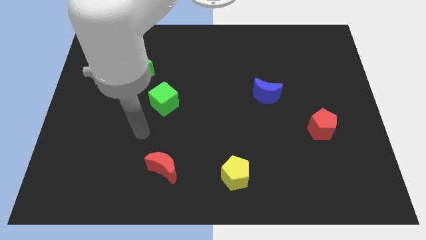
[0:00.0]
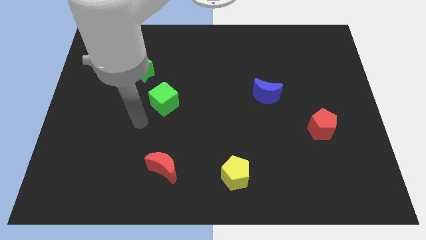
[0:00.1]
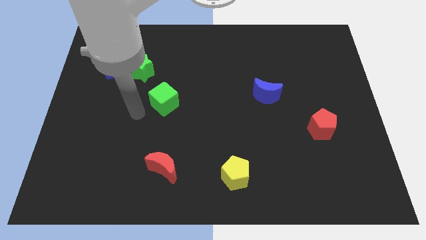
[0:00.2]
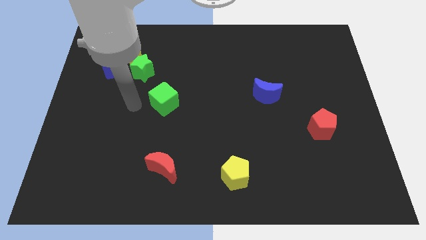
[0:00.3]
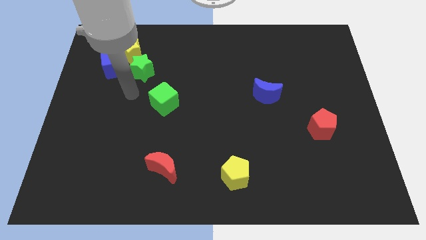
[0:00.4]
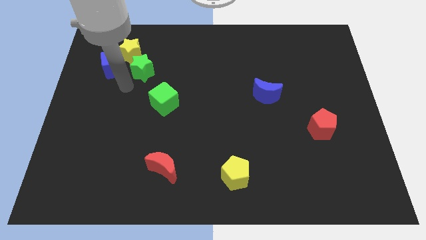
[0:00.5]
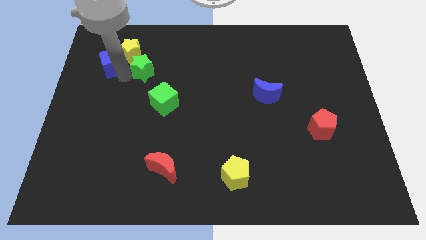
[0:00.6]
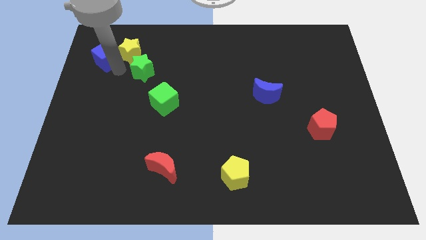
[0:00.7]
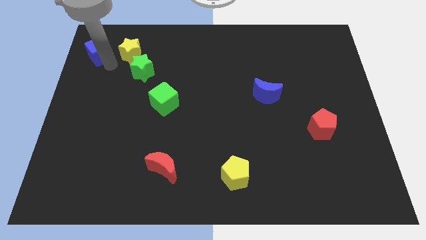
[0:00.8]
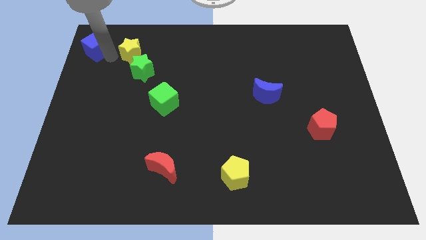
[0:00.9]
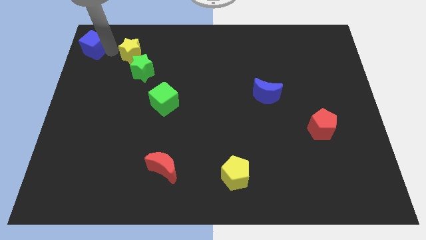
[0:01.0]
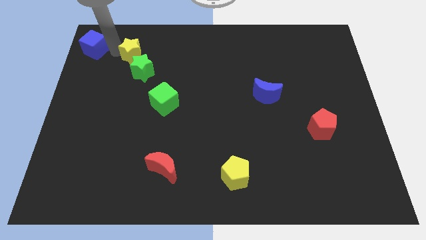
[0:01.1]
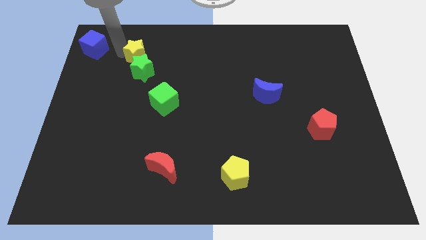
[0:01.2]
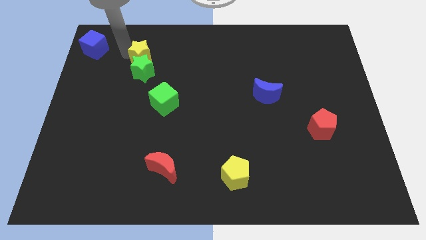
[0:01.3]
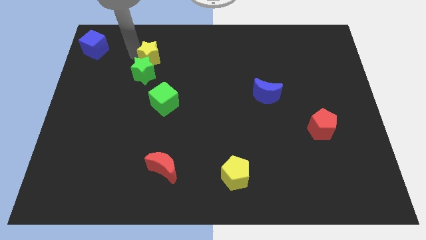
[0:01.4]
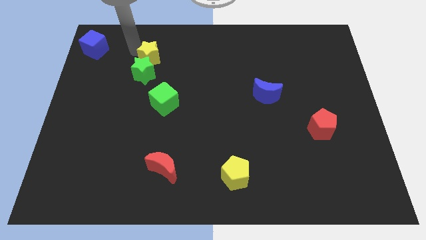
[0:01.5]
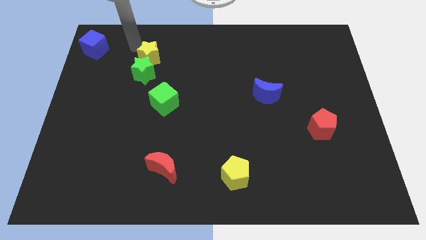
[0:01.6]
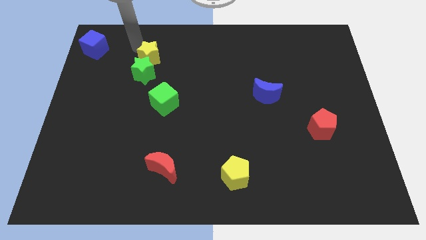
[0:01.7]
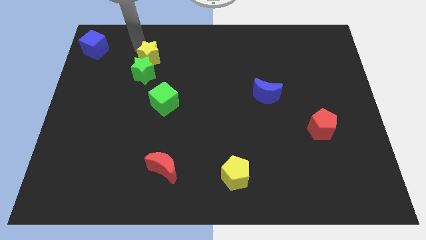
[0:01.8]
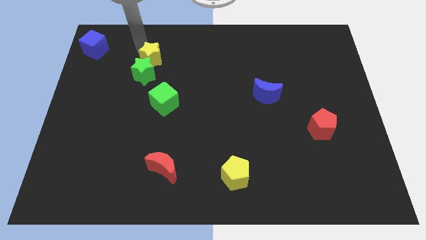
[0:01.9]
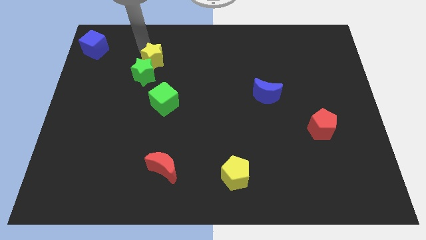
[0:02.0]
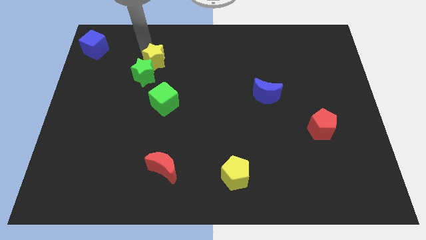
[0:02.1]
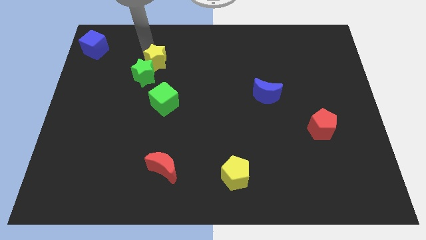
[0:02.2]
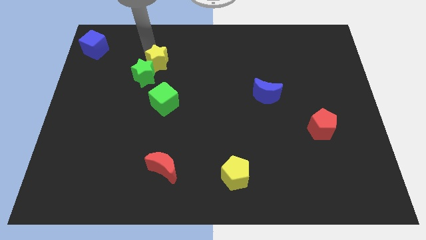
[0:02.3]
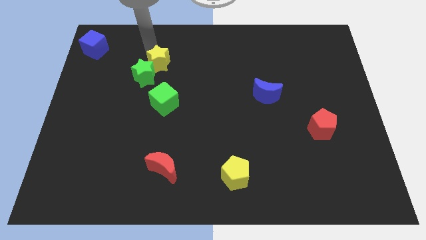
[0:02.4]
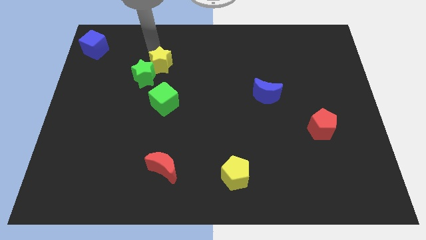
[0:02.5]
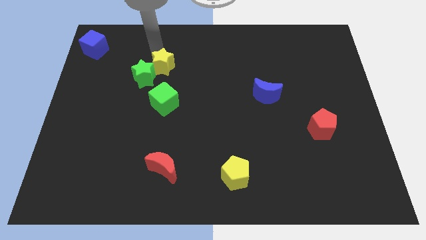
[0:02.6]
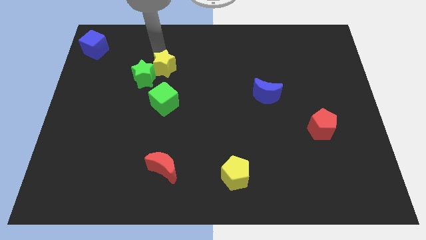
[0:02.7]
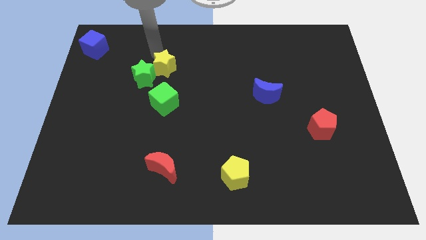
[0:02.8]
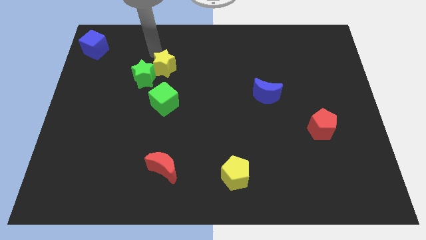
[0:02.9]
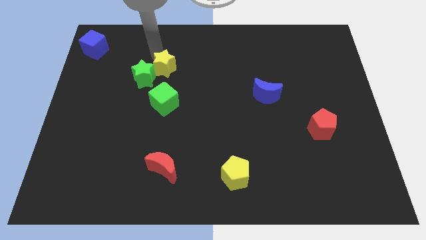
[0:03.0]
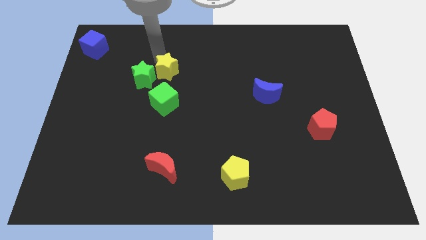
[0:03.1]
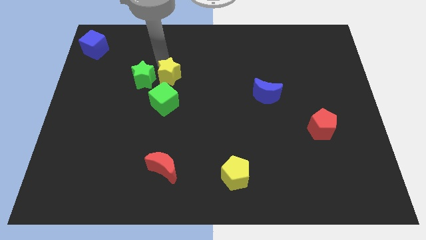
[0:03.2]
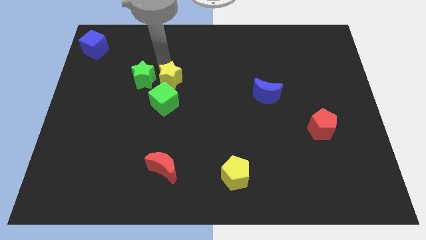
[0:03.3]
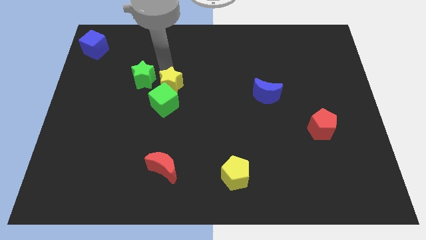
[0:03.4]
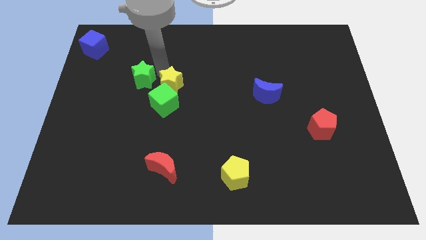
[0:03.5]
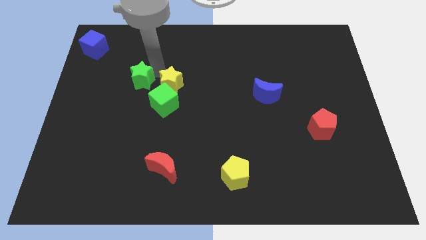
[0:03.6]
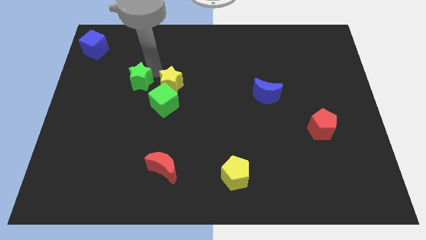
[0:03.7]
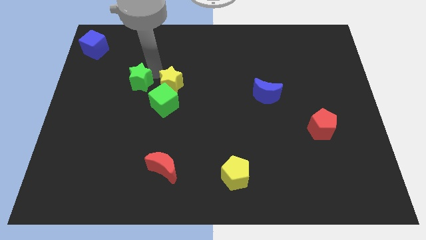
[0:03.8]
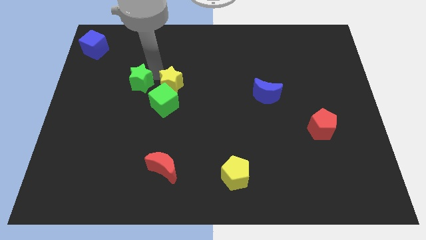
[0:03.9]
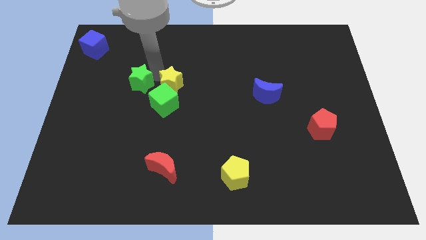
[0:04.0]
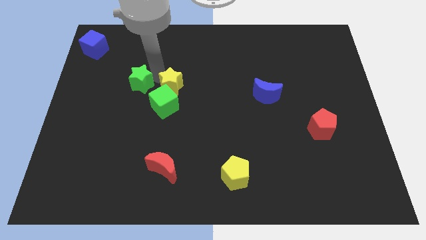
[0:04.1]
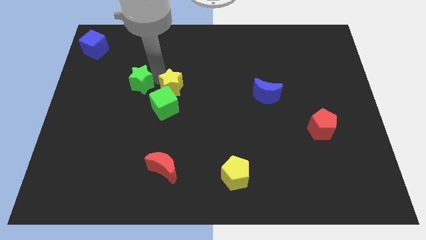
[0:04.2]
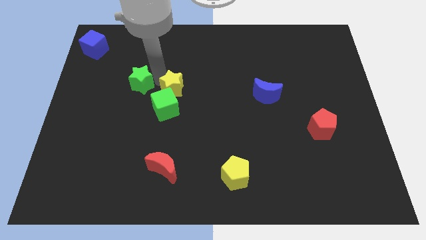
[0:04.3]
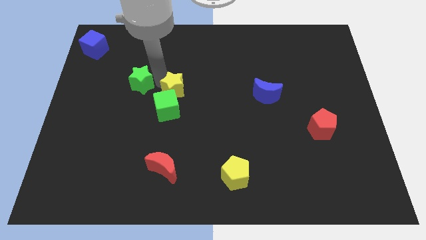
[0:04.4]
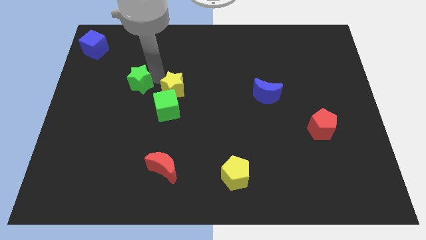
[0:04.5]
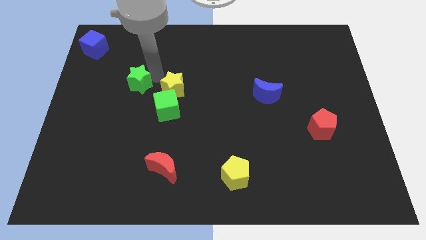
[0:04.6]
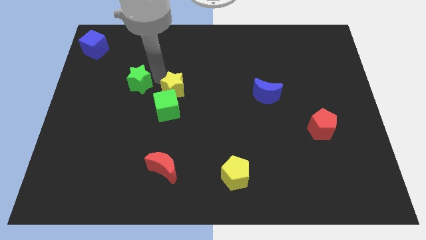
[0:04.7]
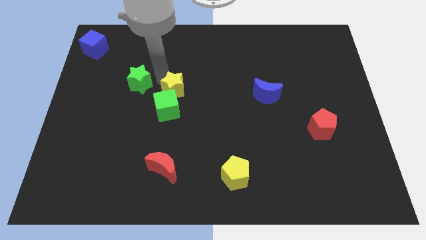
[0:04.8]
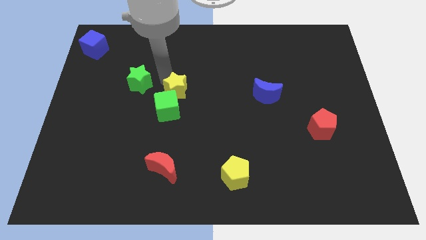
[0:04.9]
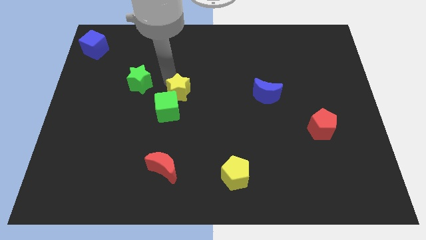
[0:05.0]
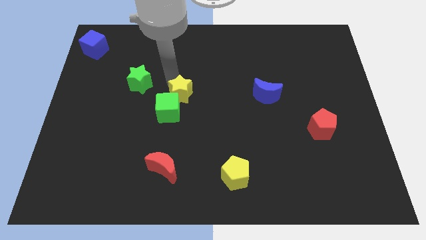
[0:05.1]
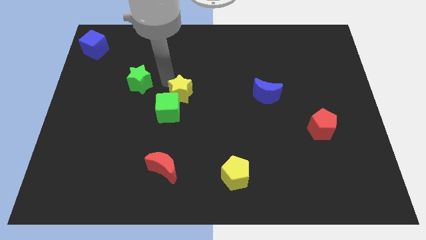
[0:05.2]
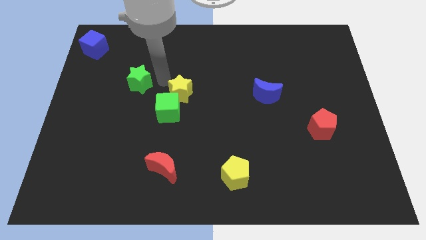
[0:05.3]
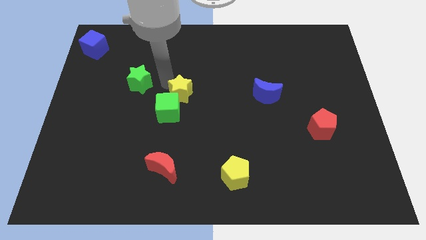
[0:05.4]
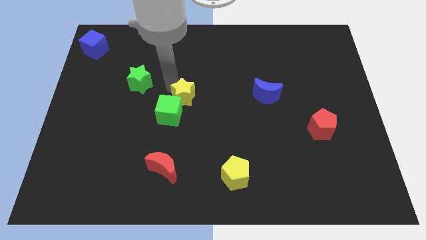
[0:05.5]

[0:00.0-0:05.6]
move the yellow star down and then right

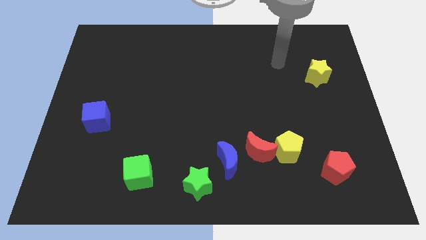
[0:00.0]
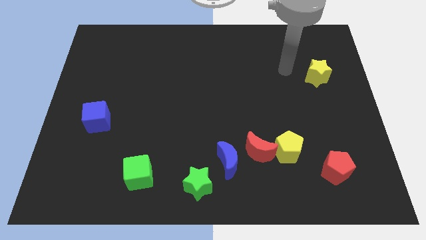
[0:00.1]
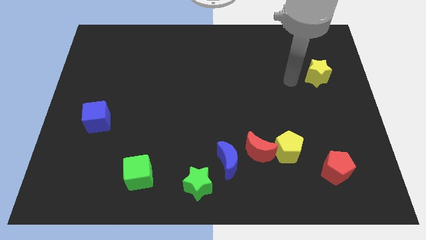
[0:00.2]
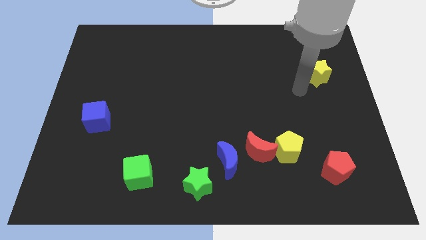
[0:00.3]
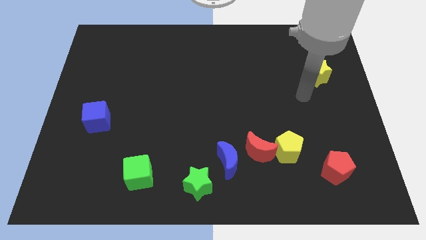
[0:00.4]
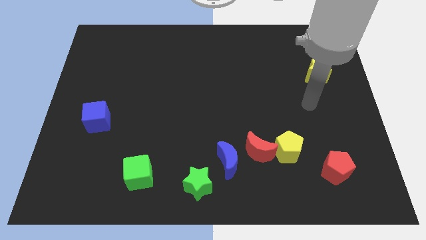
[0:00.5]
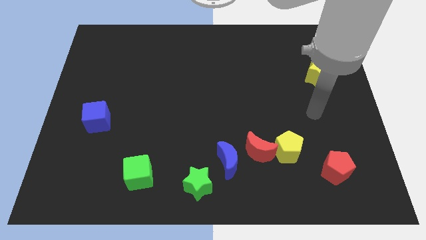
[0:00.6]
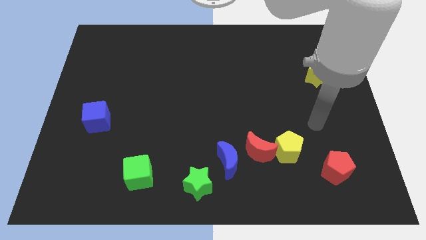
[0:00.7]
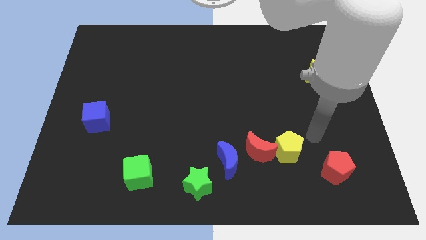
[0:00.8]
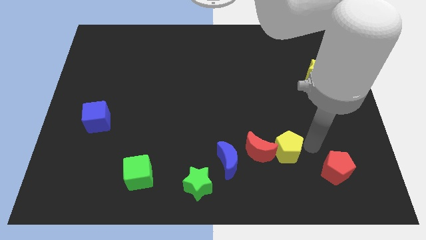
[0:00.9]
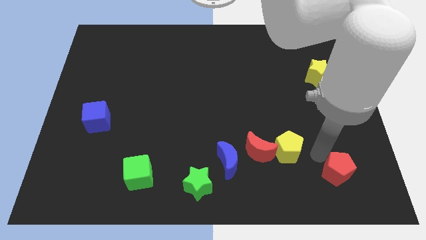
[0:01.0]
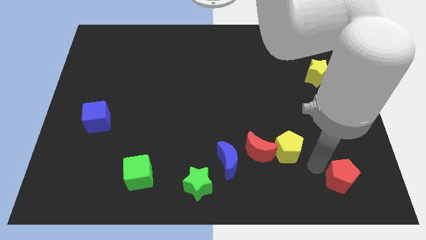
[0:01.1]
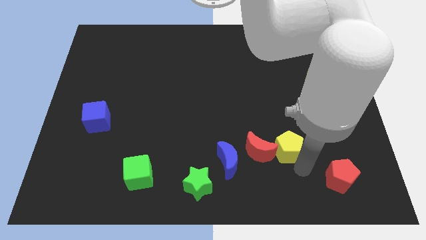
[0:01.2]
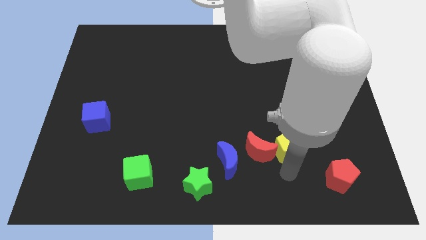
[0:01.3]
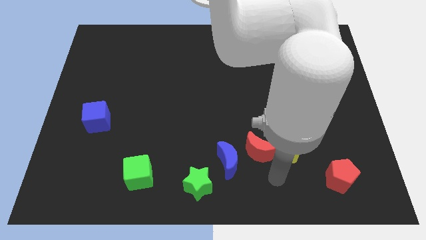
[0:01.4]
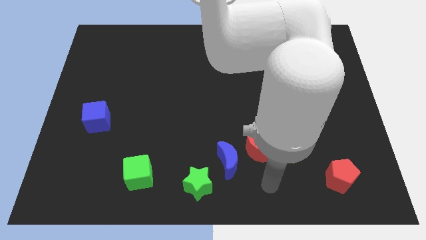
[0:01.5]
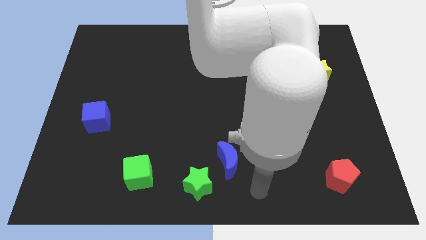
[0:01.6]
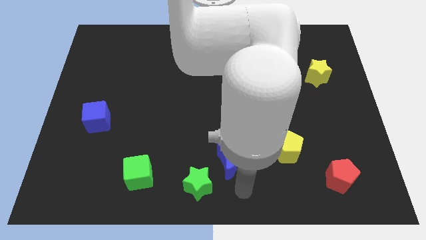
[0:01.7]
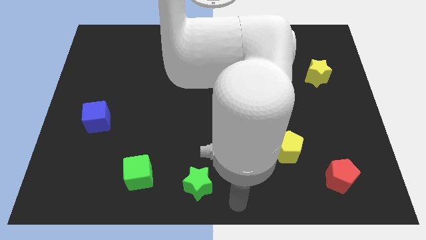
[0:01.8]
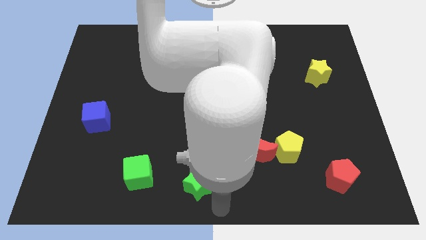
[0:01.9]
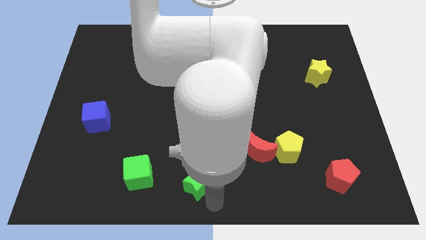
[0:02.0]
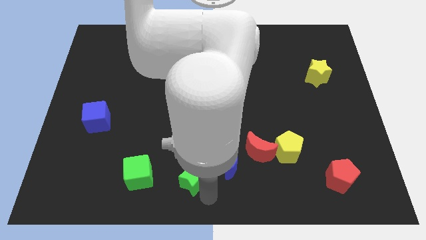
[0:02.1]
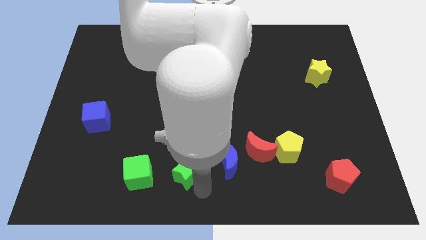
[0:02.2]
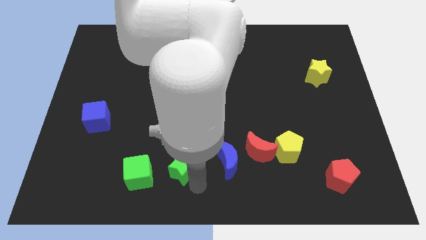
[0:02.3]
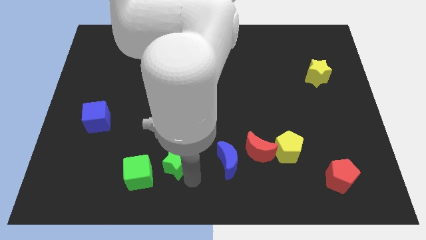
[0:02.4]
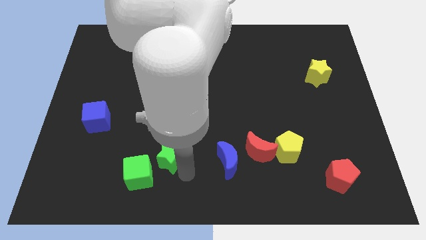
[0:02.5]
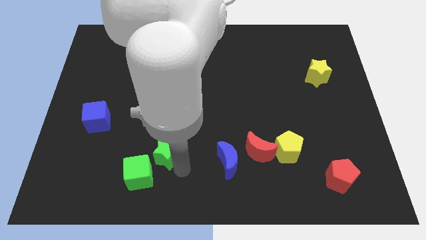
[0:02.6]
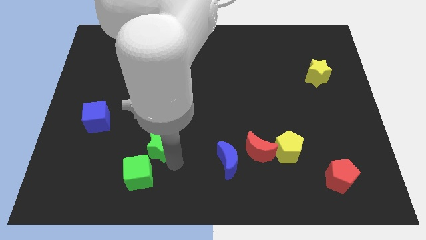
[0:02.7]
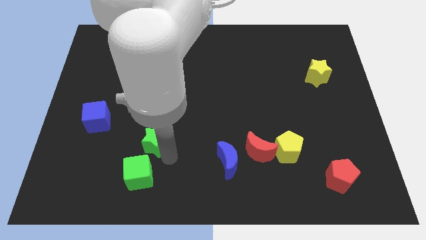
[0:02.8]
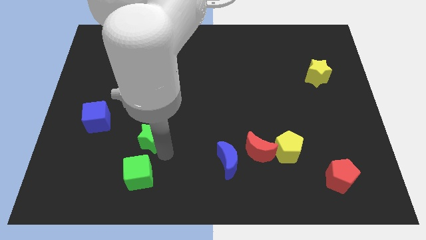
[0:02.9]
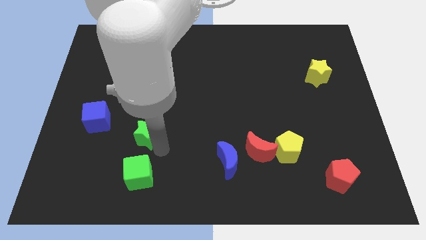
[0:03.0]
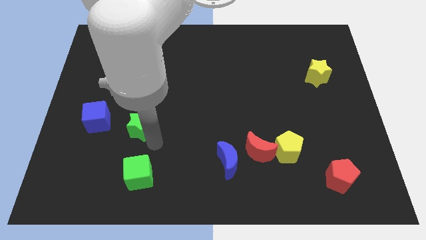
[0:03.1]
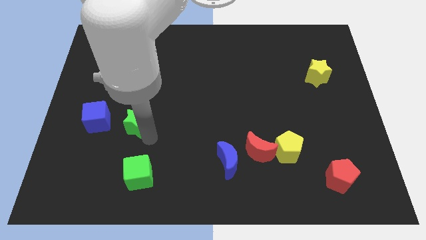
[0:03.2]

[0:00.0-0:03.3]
move the green star upwards and to the left
